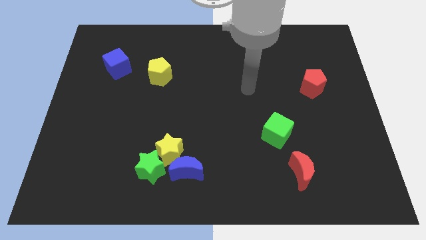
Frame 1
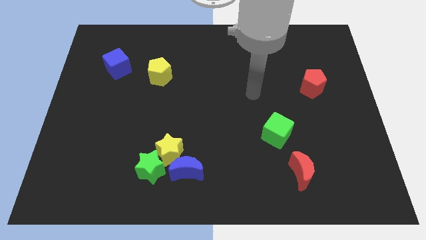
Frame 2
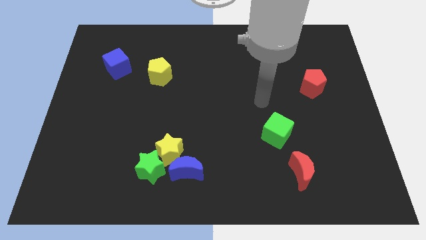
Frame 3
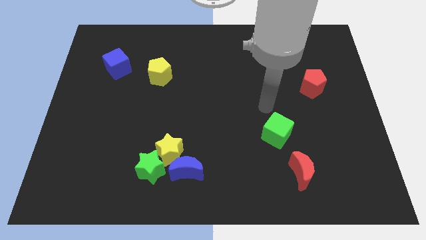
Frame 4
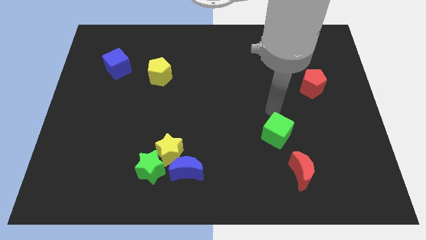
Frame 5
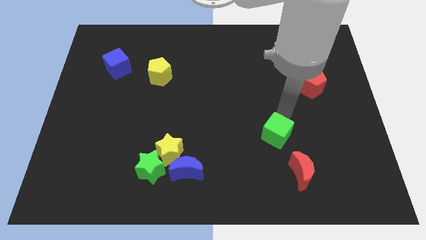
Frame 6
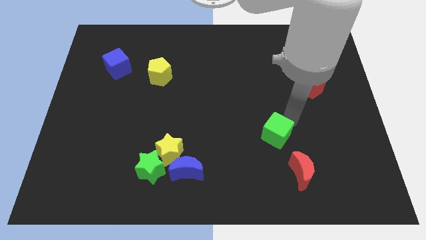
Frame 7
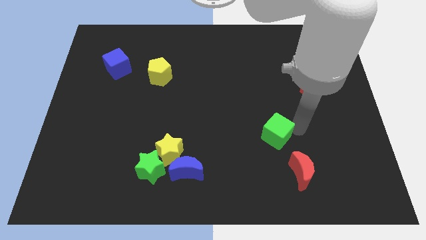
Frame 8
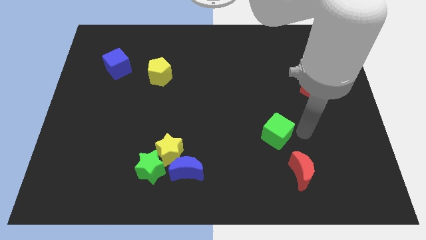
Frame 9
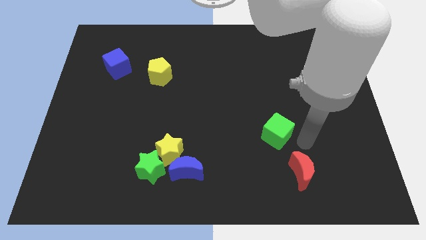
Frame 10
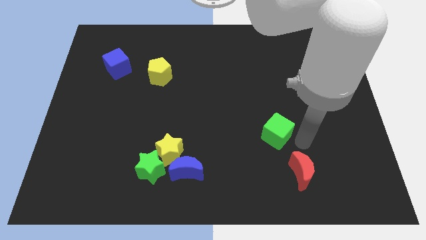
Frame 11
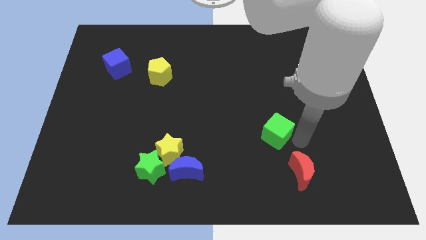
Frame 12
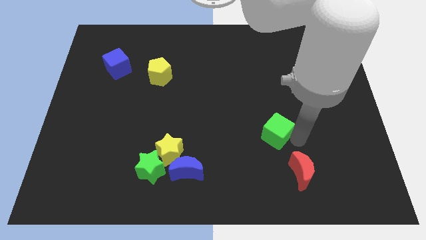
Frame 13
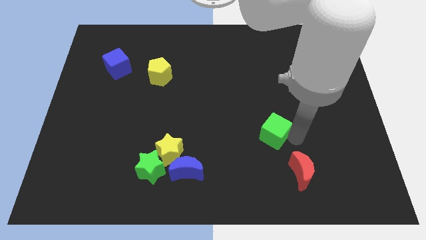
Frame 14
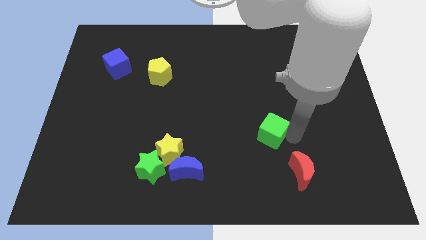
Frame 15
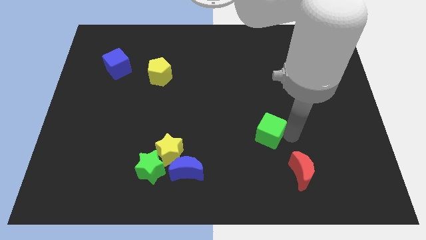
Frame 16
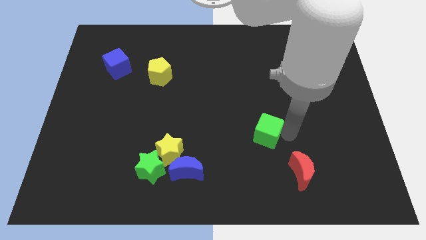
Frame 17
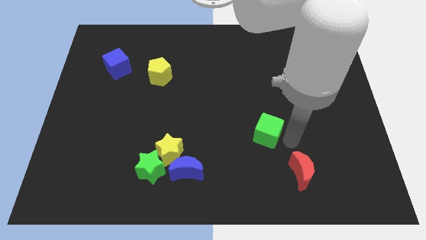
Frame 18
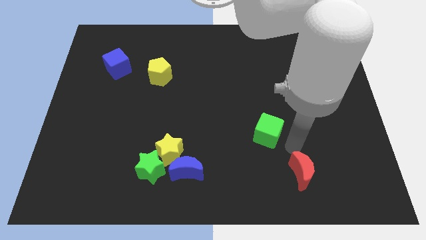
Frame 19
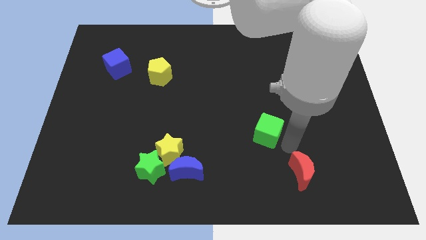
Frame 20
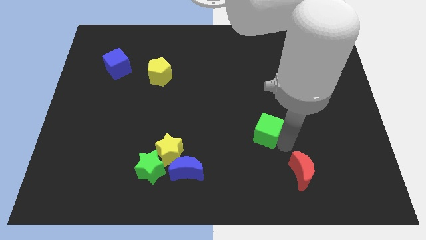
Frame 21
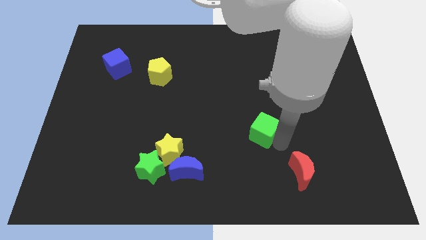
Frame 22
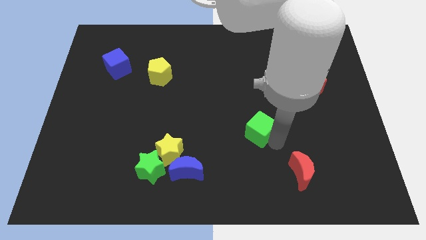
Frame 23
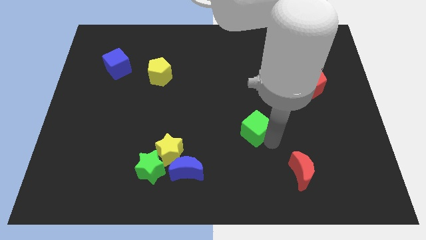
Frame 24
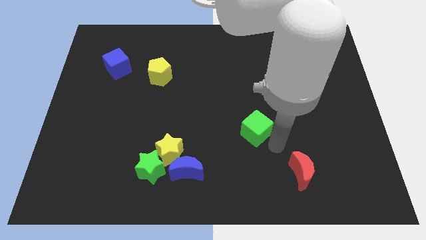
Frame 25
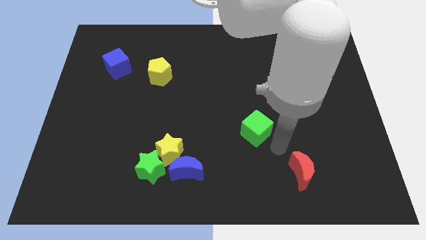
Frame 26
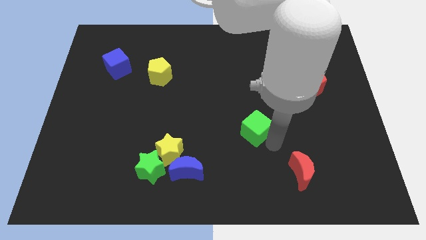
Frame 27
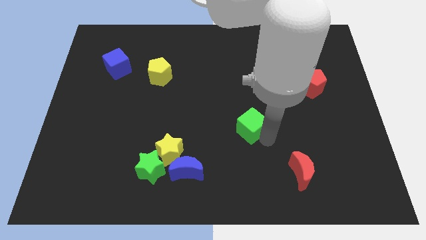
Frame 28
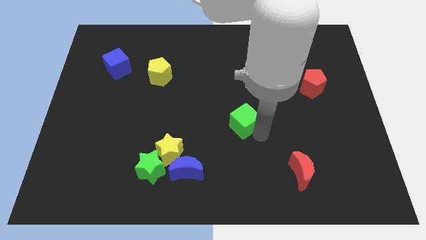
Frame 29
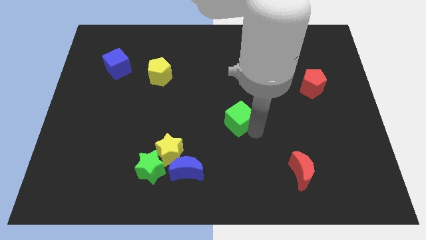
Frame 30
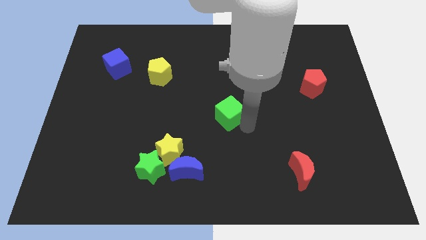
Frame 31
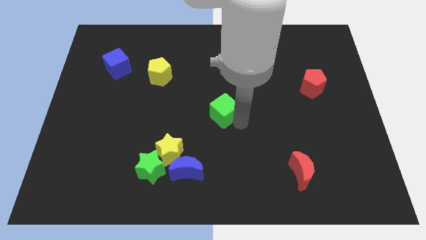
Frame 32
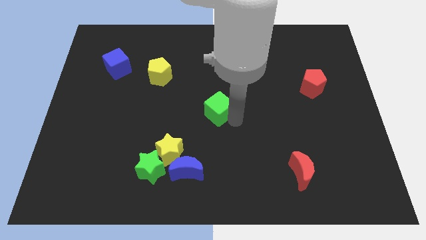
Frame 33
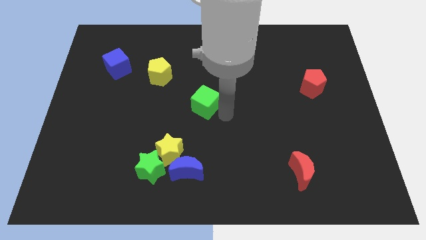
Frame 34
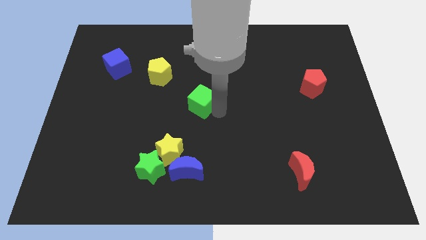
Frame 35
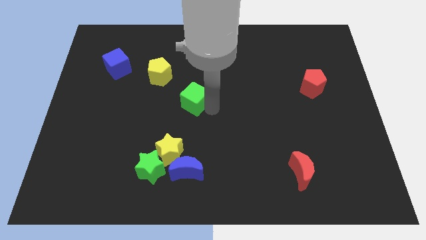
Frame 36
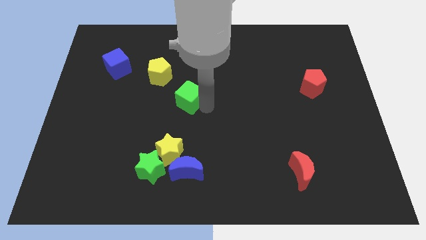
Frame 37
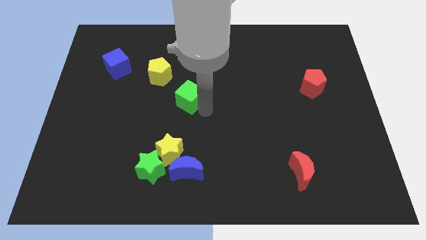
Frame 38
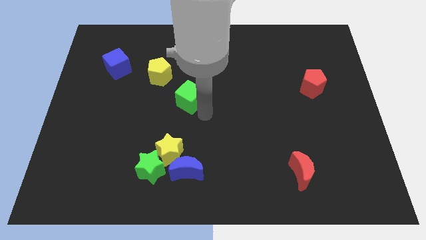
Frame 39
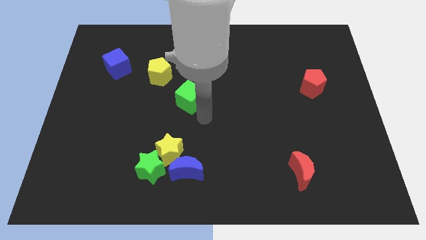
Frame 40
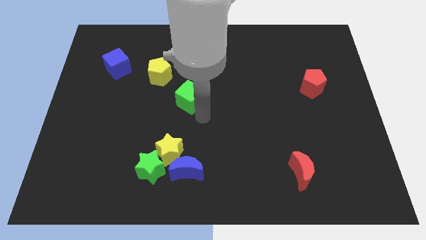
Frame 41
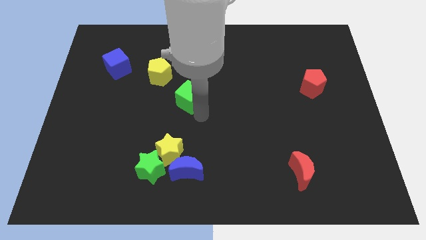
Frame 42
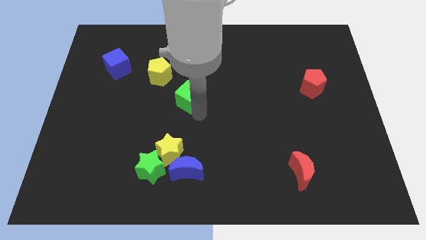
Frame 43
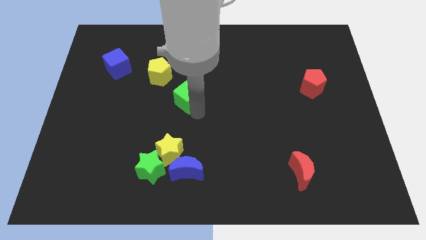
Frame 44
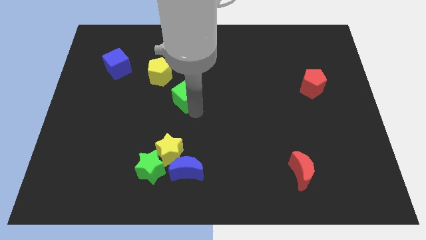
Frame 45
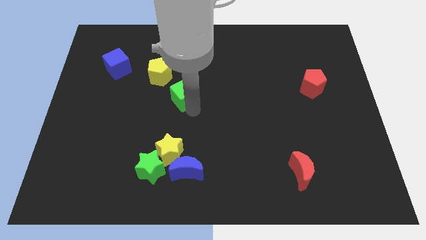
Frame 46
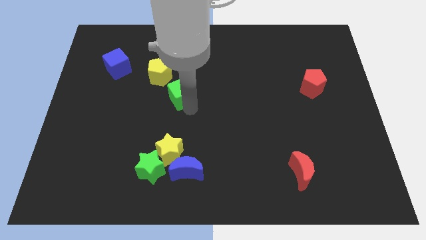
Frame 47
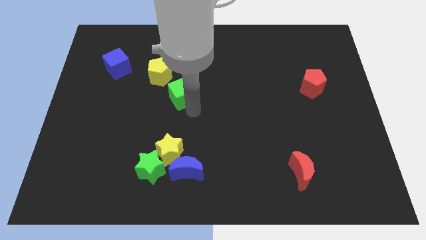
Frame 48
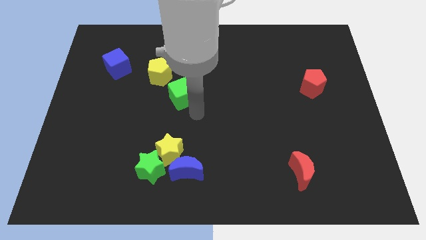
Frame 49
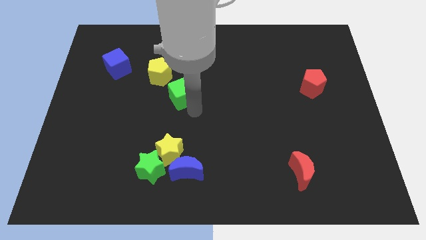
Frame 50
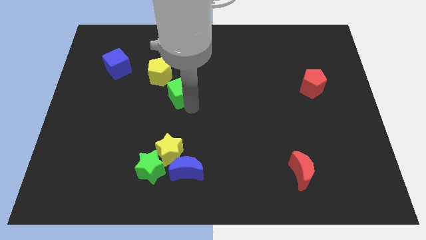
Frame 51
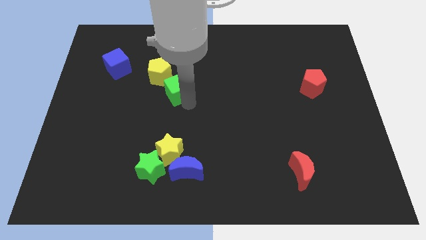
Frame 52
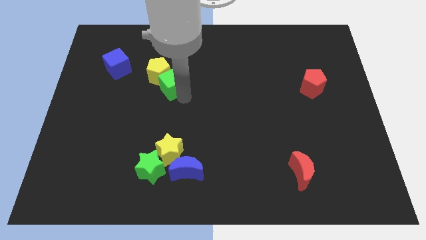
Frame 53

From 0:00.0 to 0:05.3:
put the green cube towards the yellow pentagon

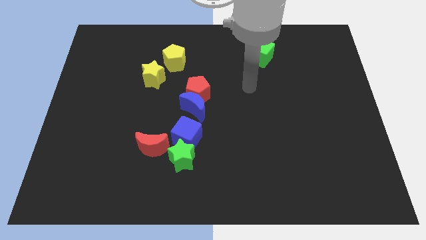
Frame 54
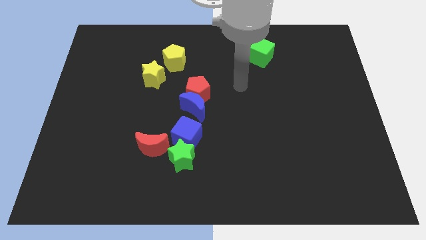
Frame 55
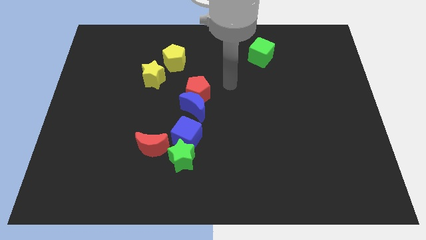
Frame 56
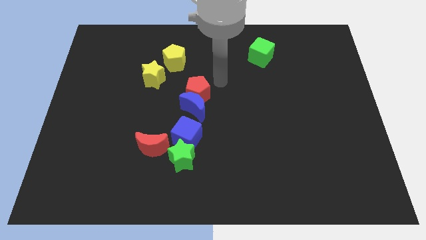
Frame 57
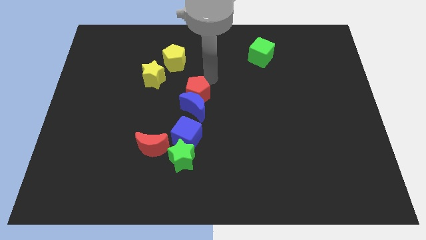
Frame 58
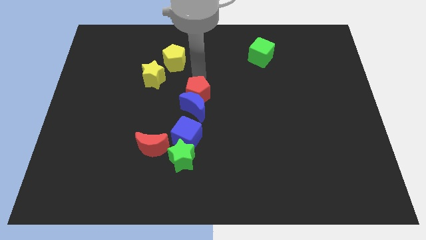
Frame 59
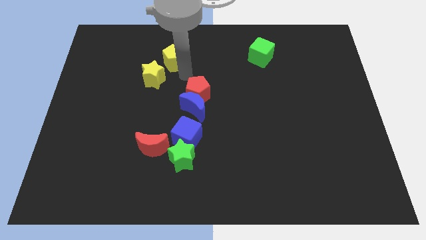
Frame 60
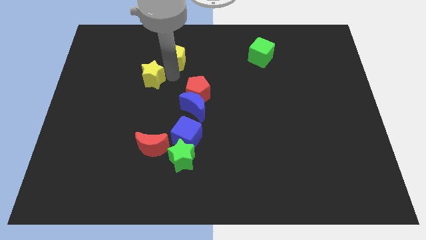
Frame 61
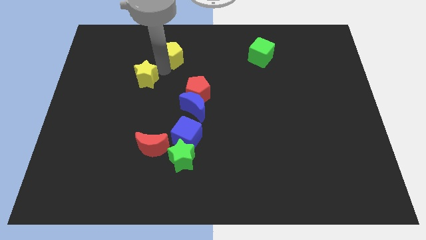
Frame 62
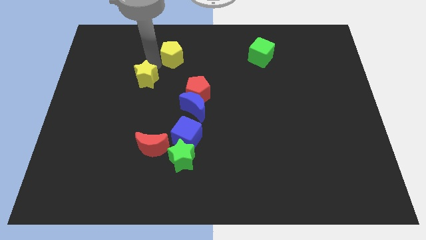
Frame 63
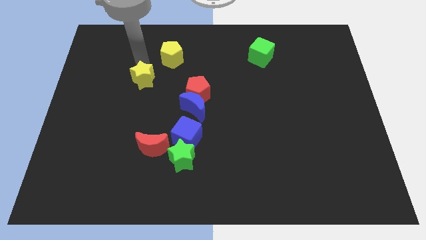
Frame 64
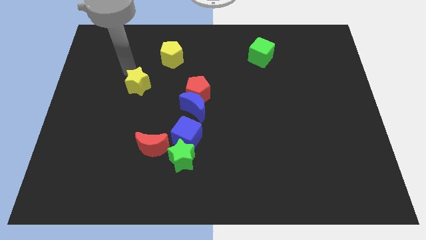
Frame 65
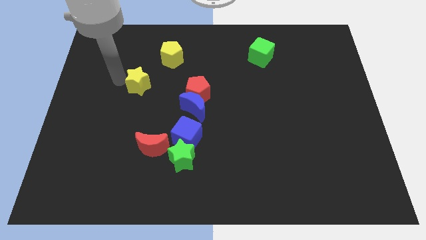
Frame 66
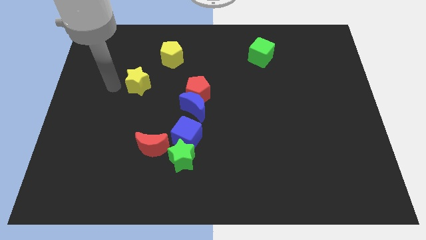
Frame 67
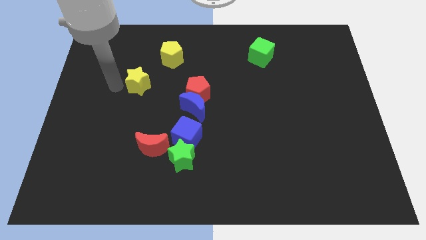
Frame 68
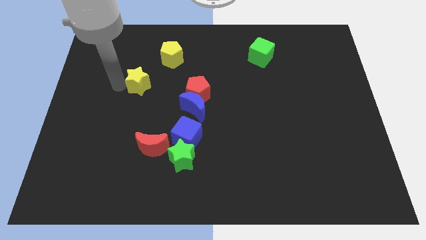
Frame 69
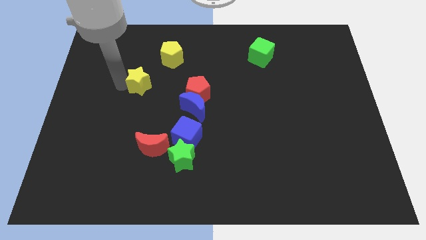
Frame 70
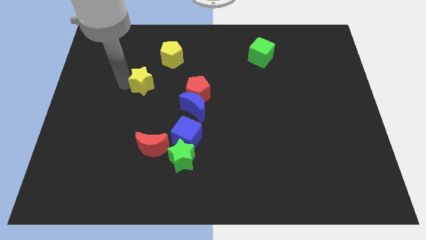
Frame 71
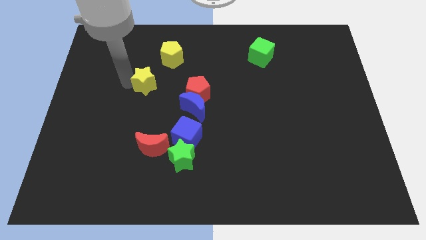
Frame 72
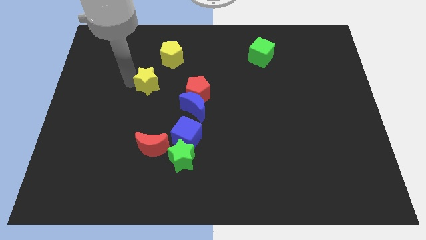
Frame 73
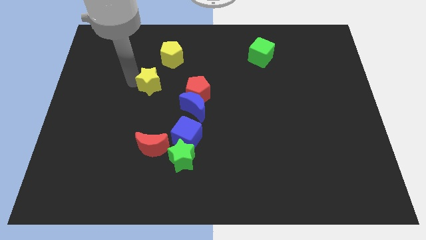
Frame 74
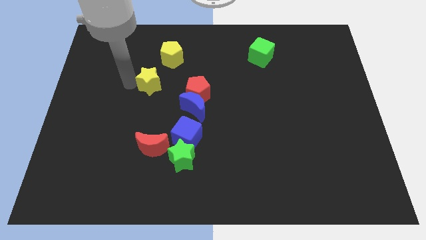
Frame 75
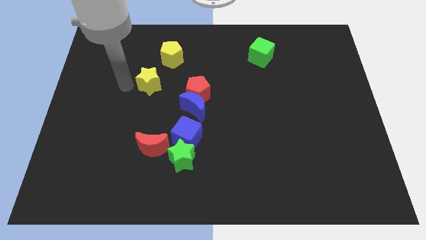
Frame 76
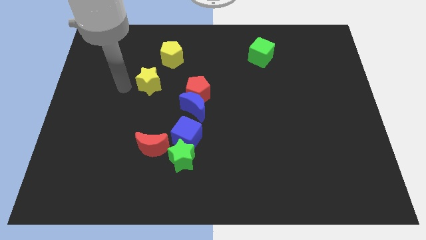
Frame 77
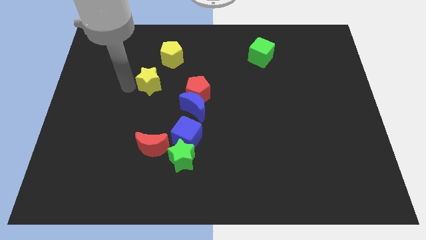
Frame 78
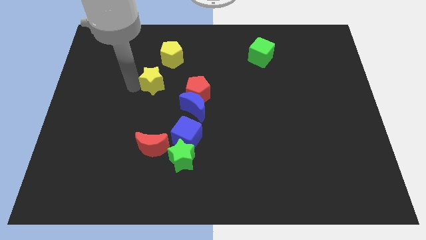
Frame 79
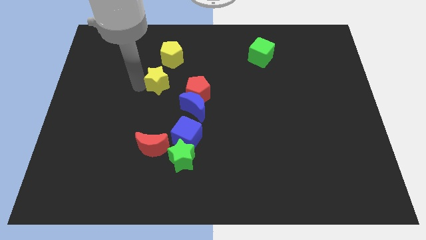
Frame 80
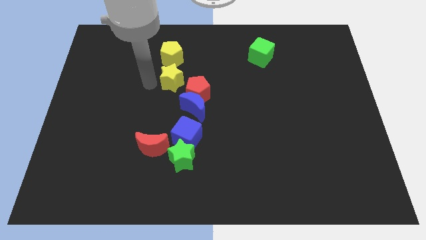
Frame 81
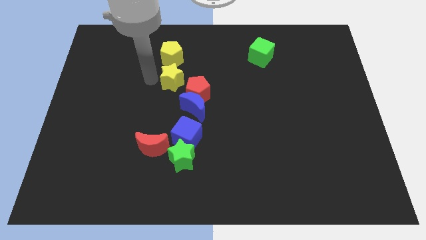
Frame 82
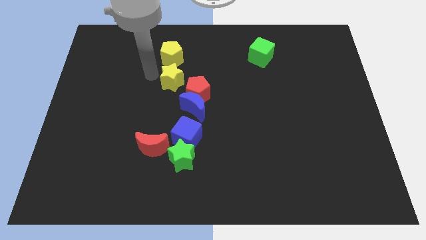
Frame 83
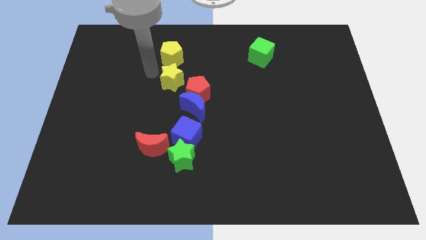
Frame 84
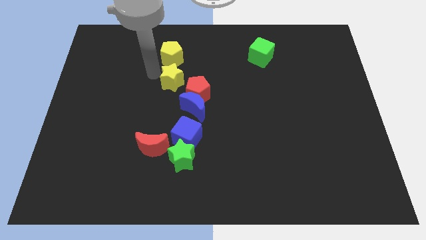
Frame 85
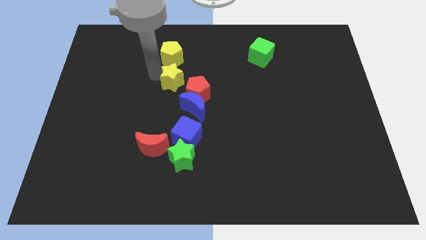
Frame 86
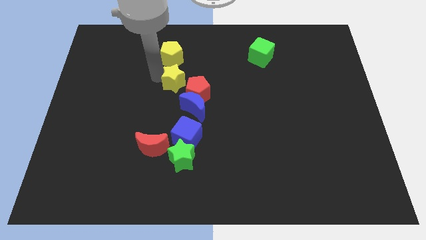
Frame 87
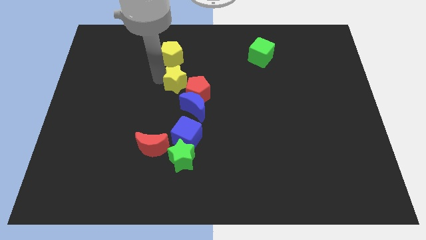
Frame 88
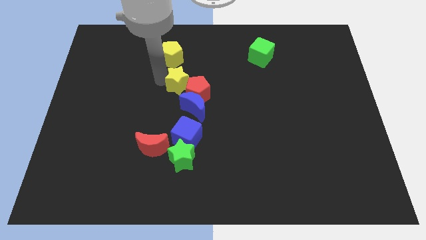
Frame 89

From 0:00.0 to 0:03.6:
put the yellow star next to the red pentagon
